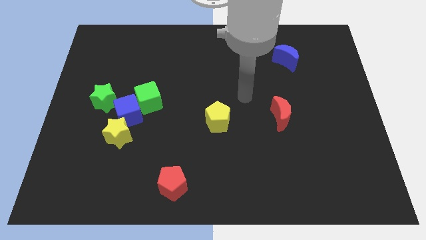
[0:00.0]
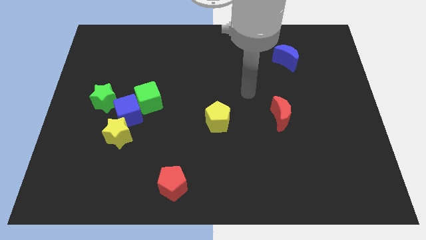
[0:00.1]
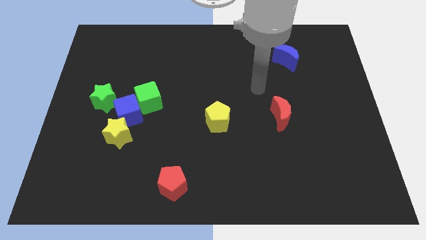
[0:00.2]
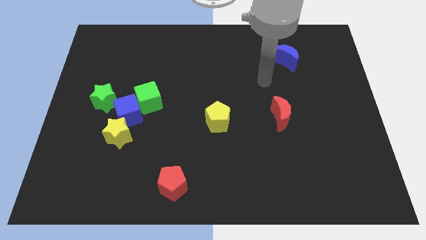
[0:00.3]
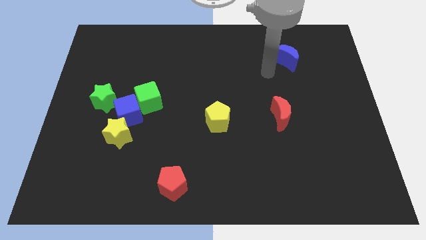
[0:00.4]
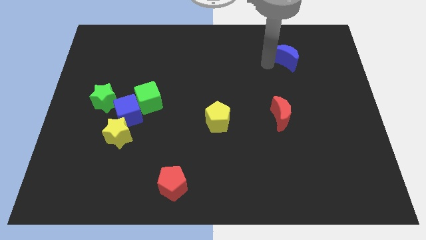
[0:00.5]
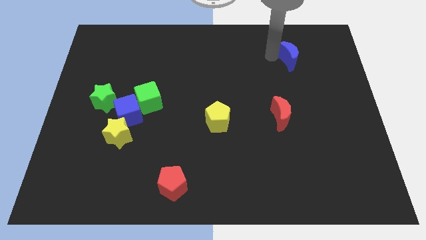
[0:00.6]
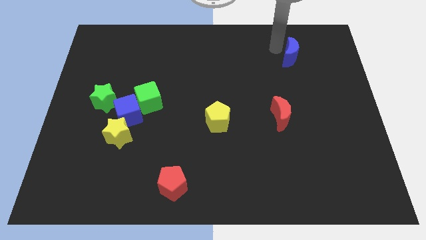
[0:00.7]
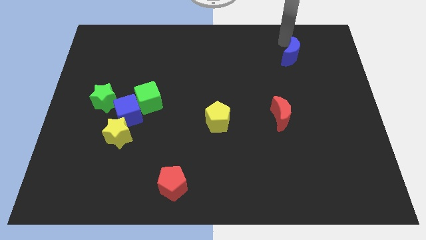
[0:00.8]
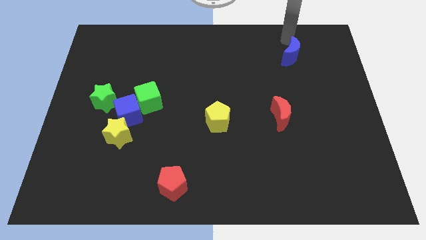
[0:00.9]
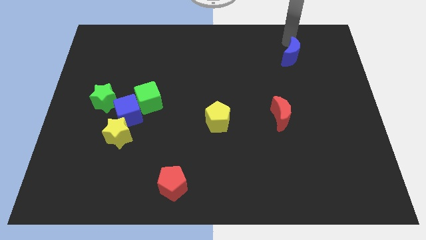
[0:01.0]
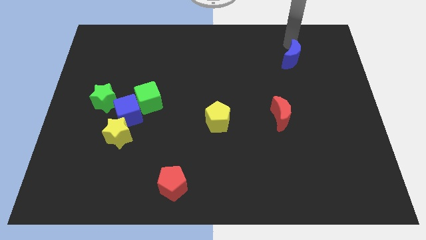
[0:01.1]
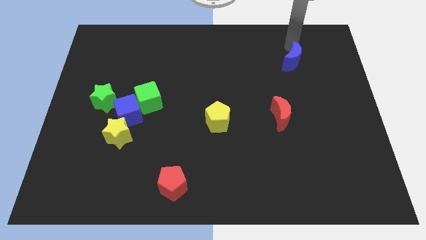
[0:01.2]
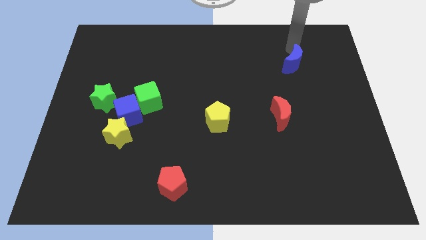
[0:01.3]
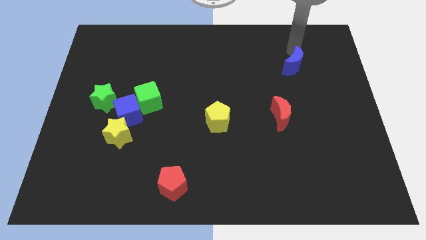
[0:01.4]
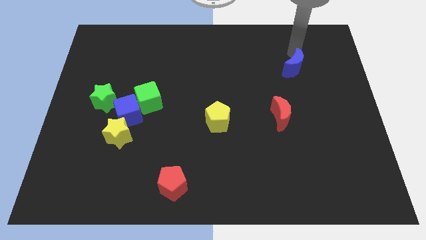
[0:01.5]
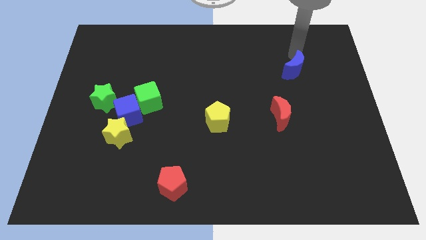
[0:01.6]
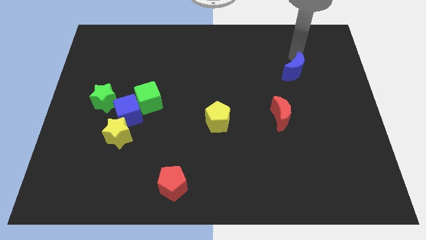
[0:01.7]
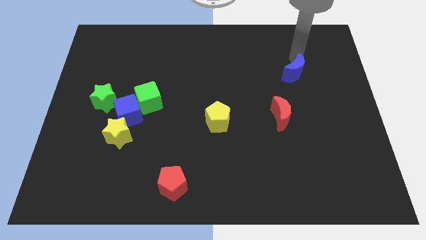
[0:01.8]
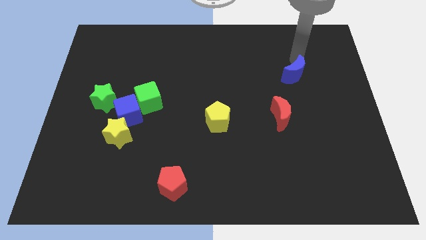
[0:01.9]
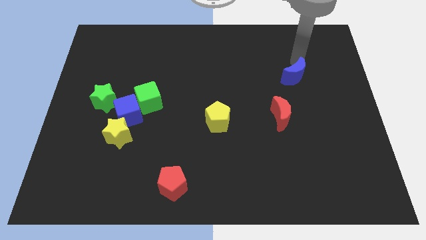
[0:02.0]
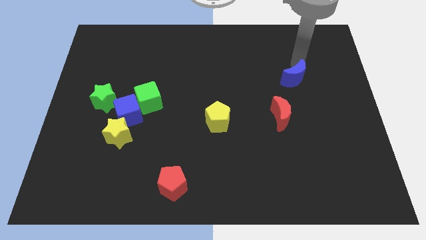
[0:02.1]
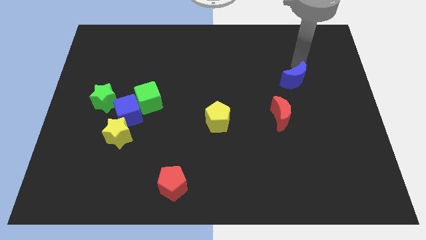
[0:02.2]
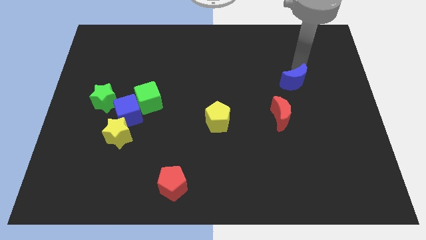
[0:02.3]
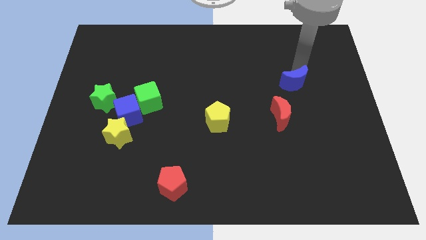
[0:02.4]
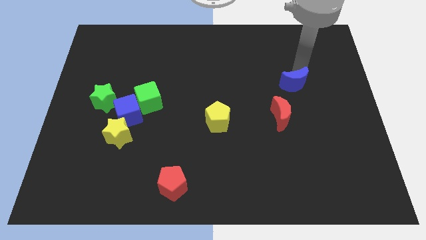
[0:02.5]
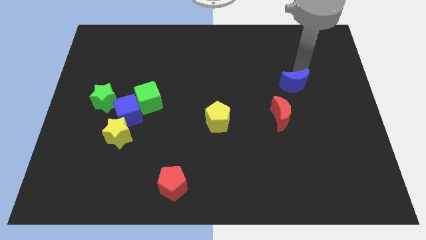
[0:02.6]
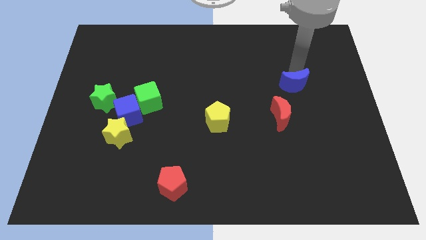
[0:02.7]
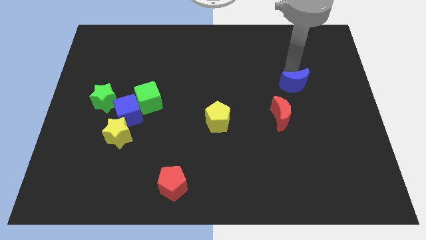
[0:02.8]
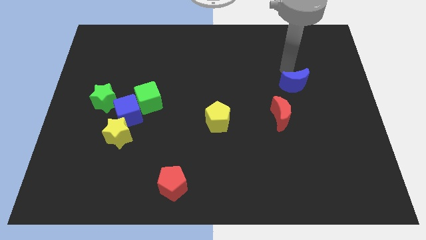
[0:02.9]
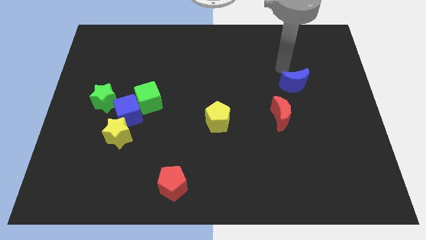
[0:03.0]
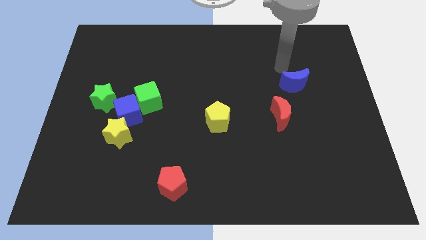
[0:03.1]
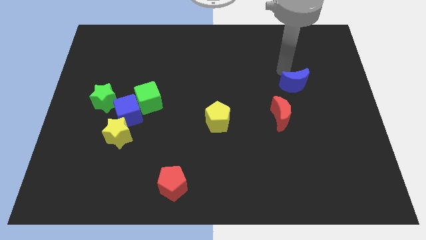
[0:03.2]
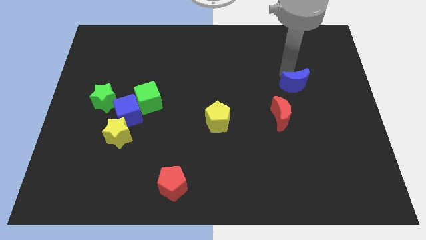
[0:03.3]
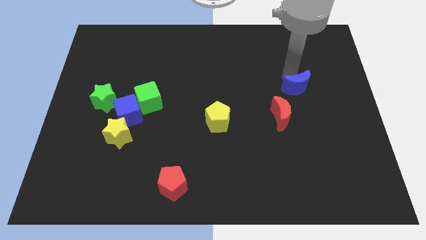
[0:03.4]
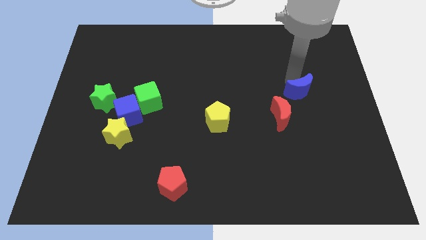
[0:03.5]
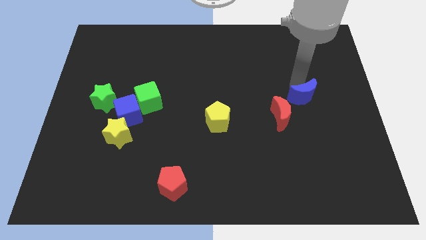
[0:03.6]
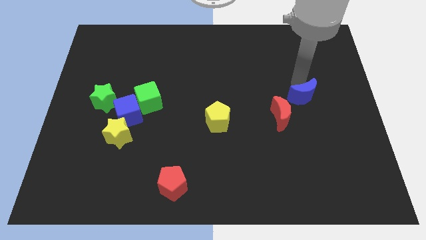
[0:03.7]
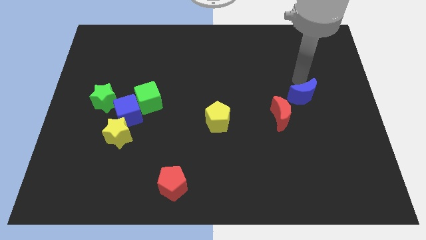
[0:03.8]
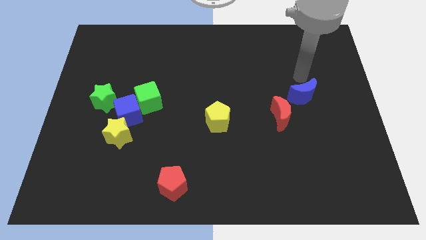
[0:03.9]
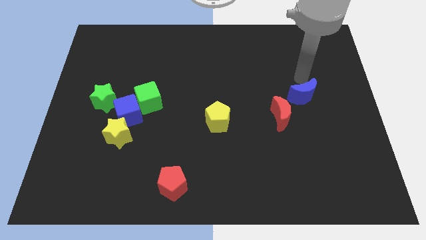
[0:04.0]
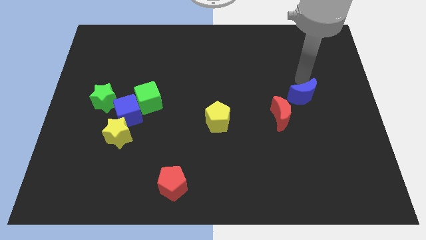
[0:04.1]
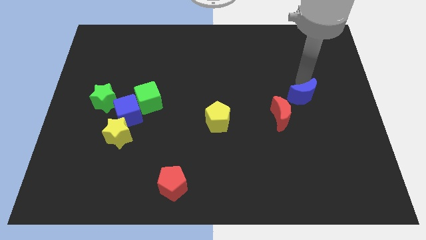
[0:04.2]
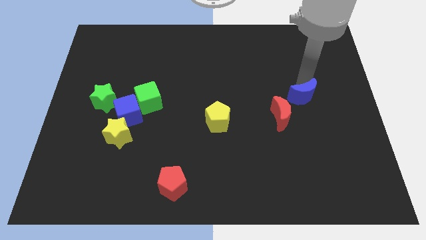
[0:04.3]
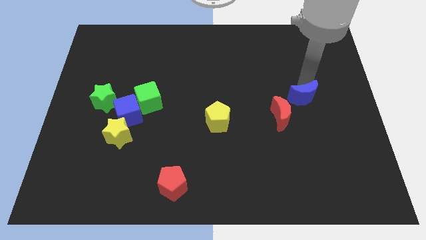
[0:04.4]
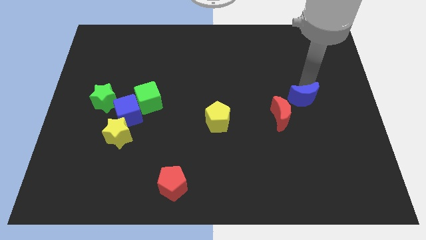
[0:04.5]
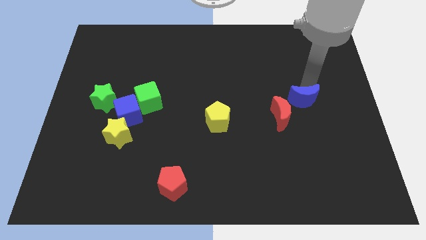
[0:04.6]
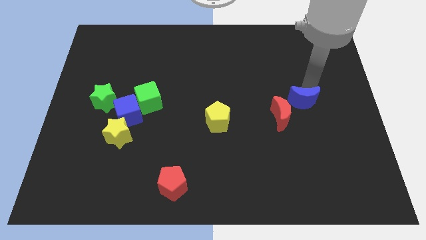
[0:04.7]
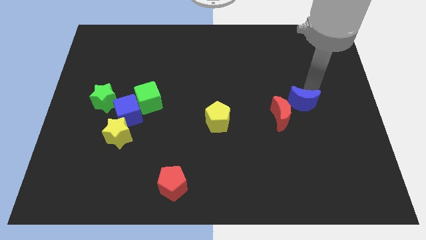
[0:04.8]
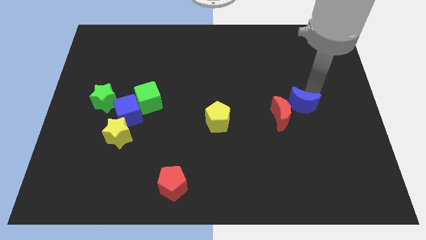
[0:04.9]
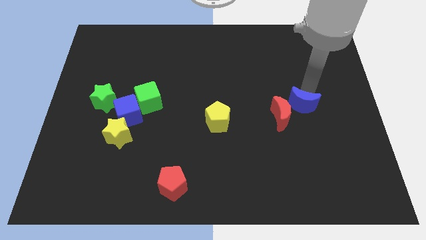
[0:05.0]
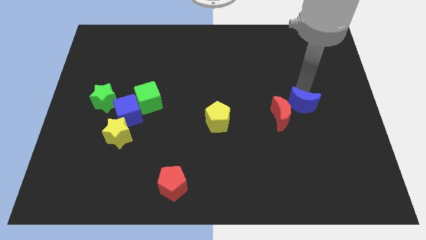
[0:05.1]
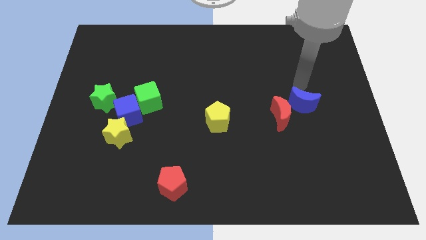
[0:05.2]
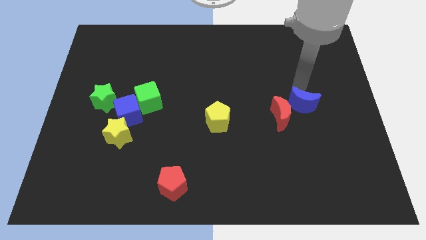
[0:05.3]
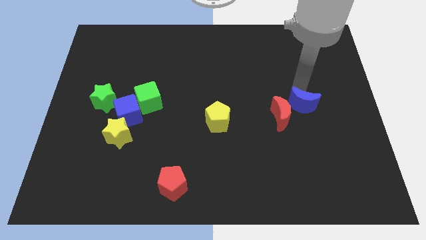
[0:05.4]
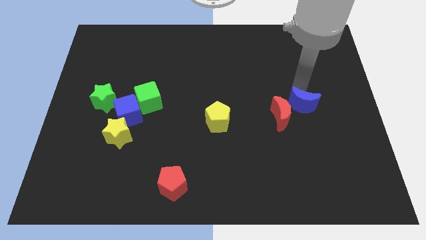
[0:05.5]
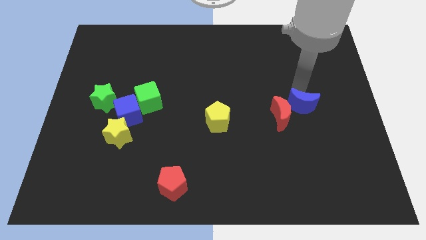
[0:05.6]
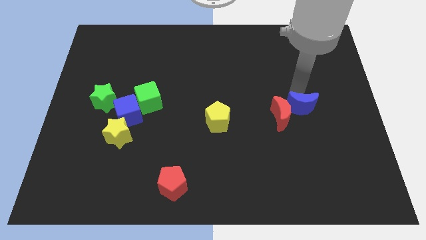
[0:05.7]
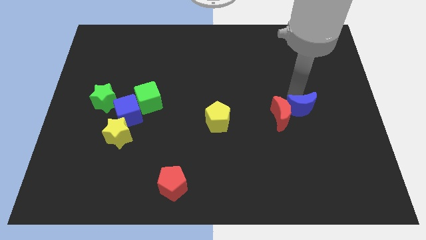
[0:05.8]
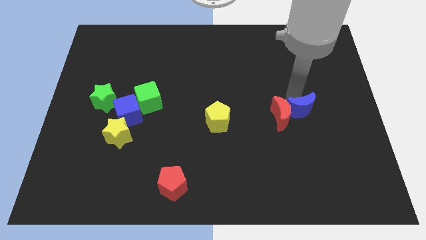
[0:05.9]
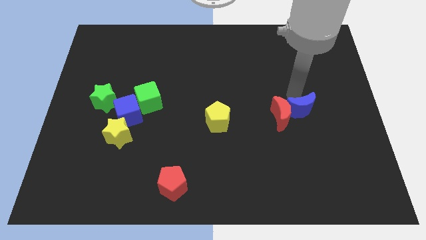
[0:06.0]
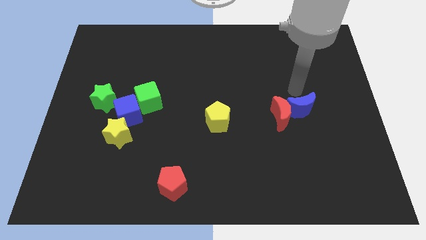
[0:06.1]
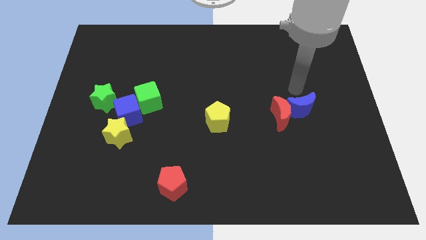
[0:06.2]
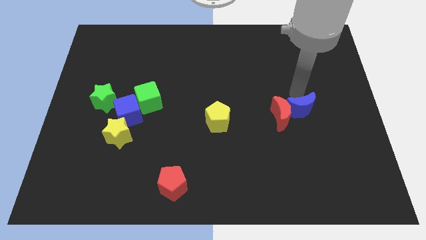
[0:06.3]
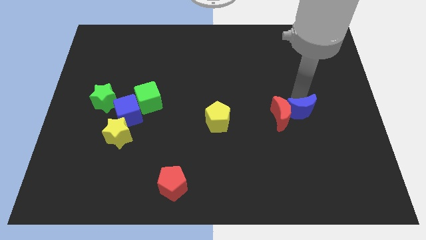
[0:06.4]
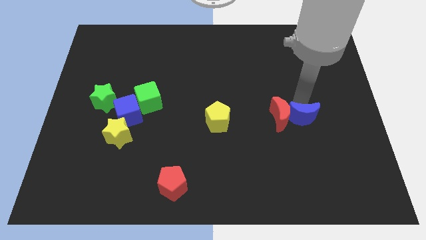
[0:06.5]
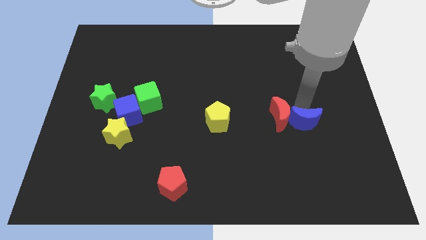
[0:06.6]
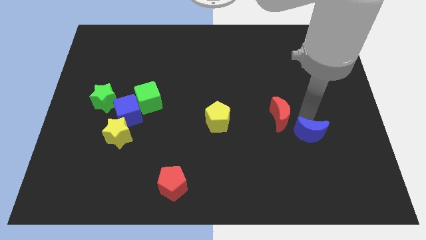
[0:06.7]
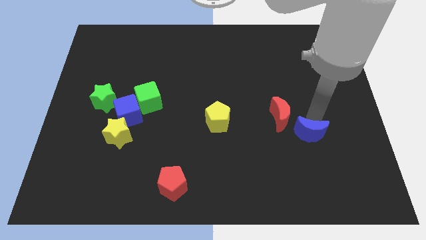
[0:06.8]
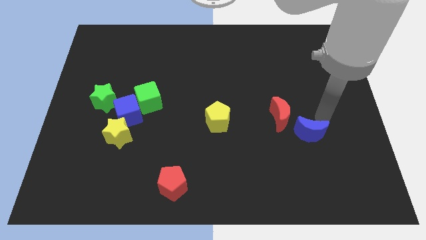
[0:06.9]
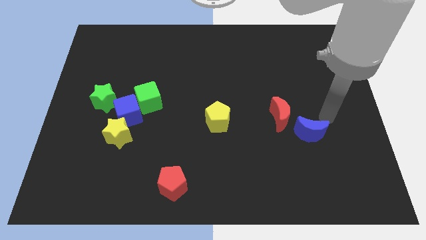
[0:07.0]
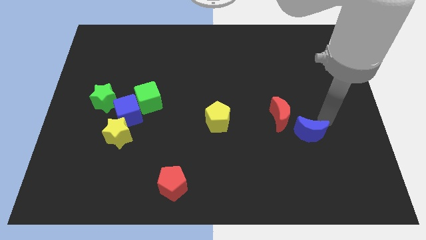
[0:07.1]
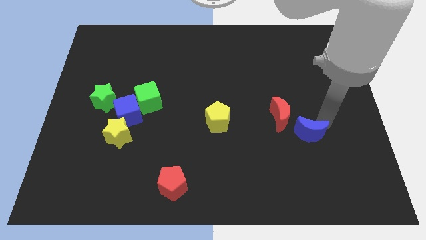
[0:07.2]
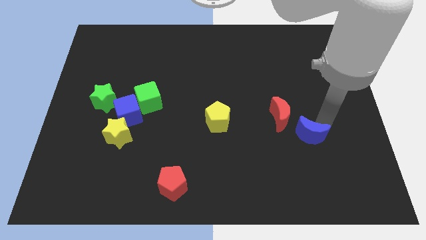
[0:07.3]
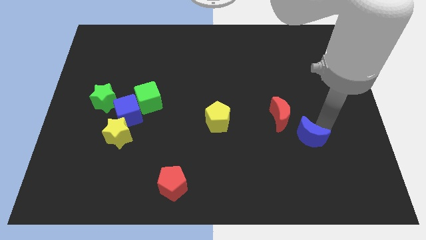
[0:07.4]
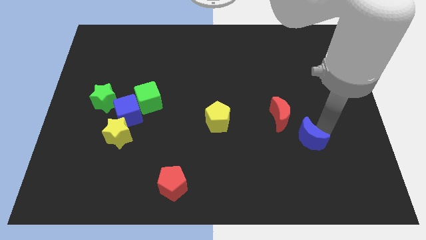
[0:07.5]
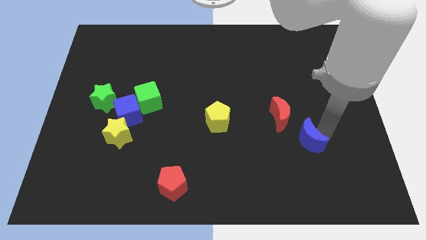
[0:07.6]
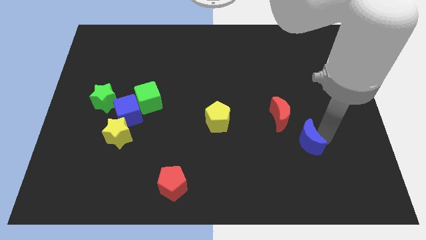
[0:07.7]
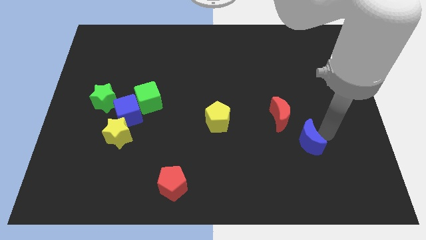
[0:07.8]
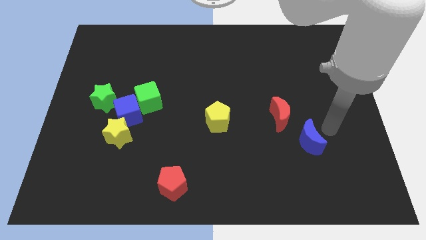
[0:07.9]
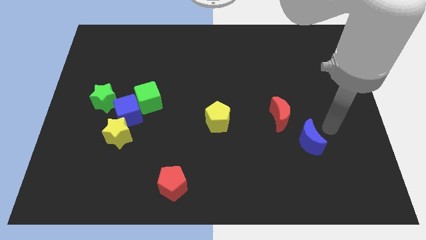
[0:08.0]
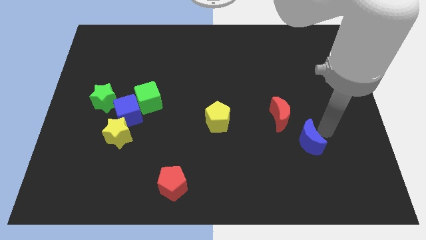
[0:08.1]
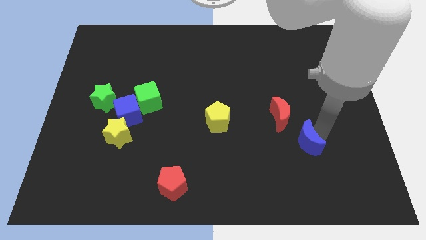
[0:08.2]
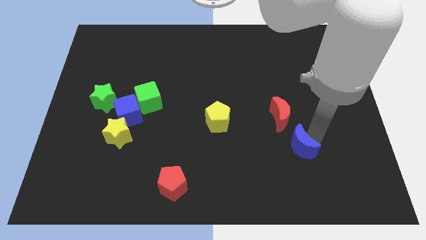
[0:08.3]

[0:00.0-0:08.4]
move the blue moon below the red moon
